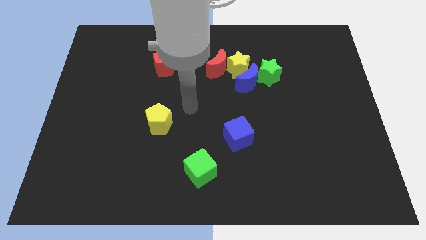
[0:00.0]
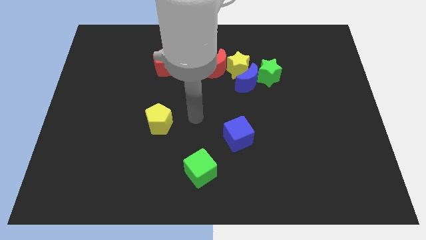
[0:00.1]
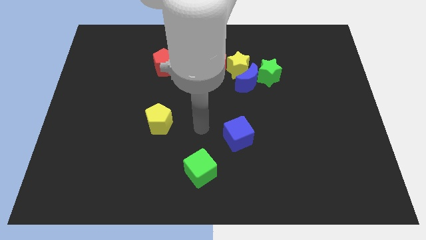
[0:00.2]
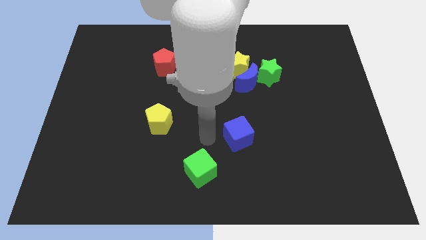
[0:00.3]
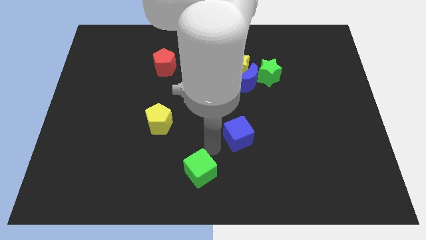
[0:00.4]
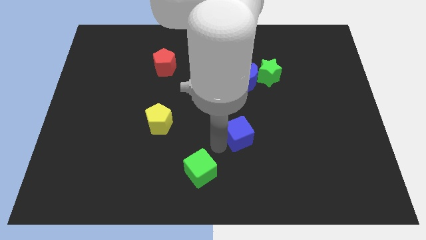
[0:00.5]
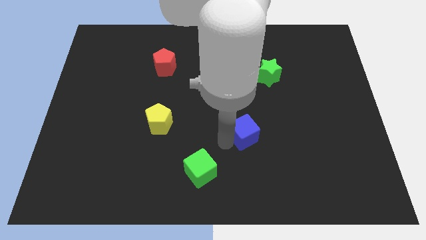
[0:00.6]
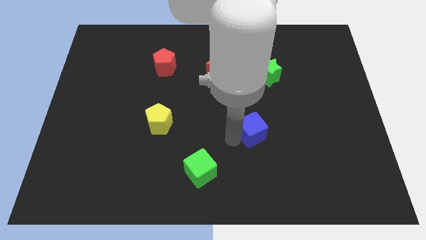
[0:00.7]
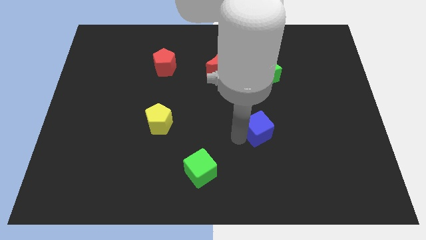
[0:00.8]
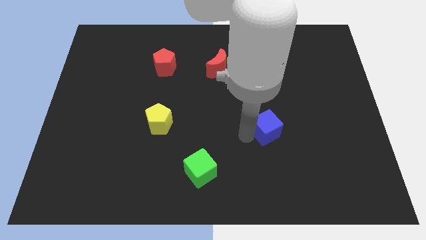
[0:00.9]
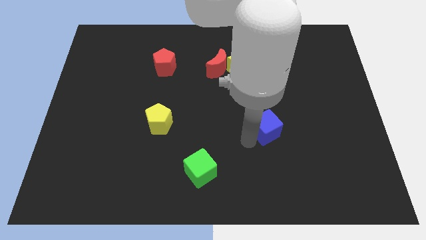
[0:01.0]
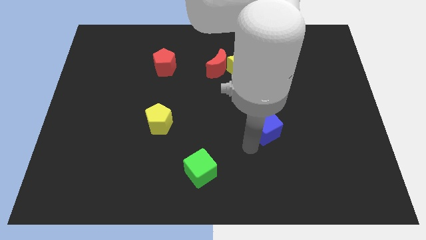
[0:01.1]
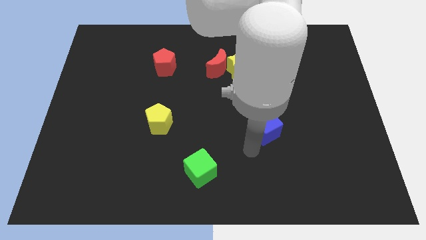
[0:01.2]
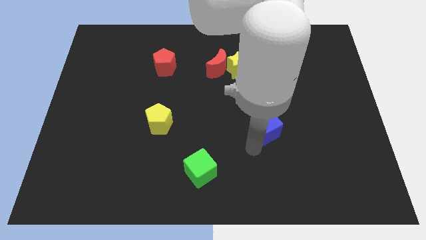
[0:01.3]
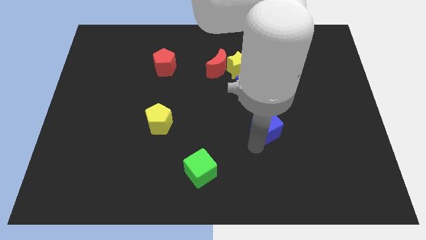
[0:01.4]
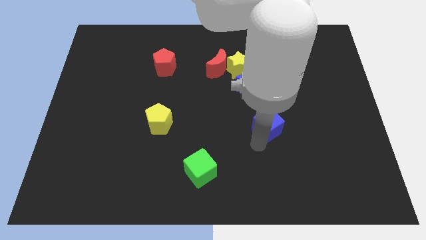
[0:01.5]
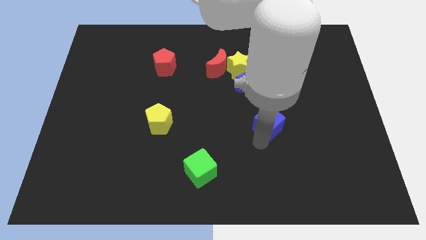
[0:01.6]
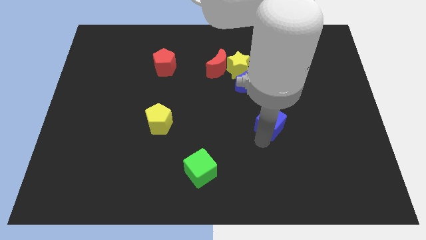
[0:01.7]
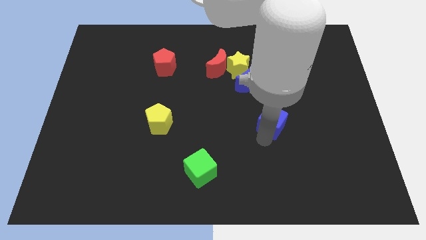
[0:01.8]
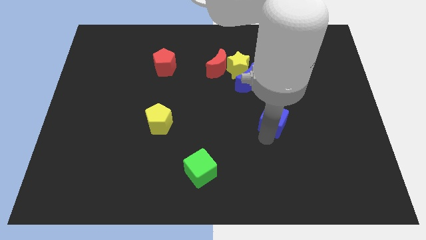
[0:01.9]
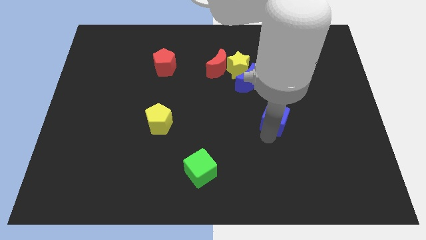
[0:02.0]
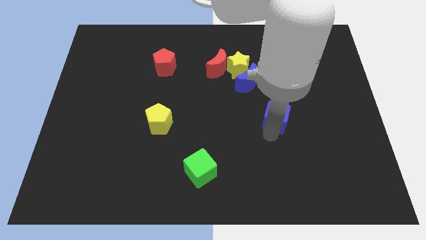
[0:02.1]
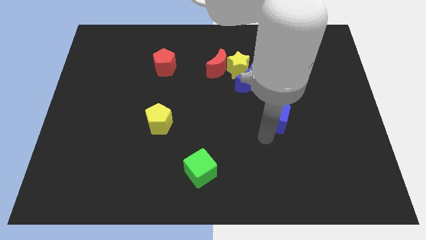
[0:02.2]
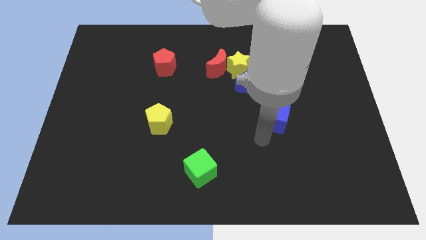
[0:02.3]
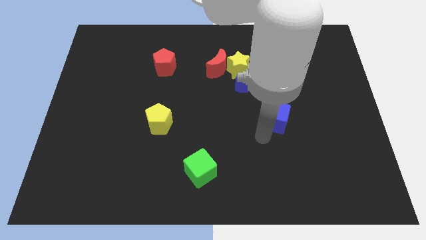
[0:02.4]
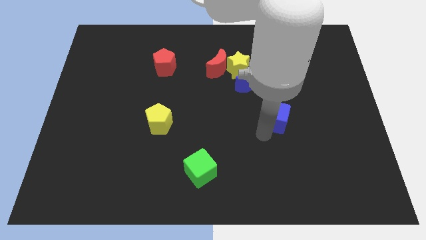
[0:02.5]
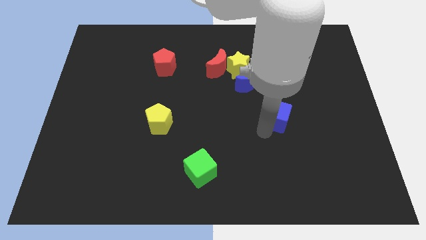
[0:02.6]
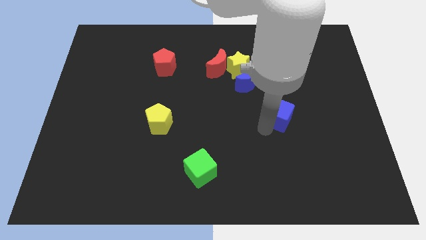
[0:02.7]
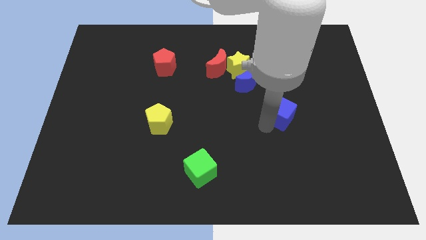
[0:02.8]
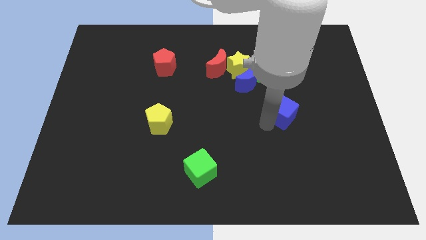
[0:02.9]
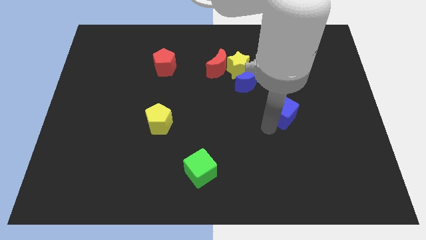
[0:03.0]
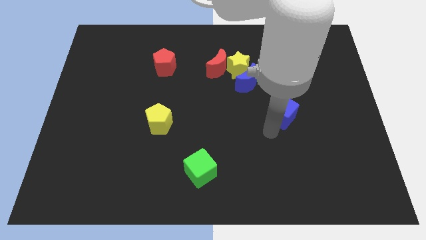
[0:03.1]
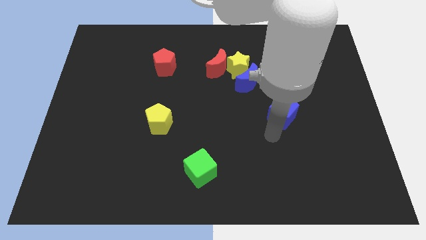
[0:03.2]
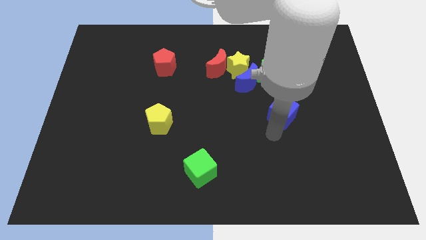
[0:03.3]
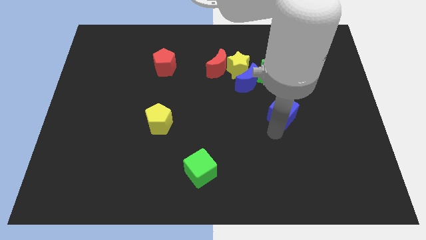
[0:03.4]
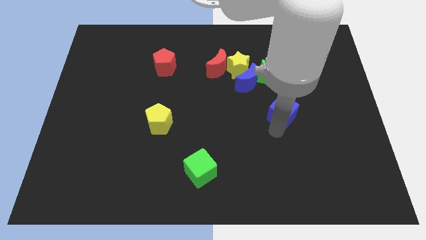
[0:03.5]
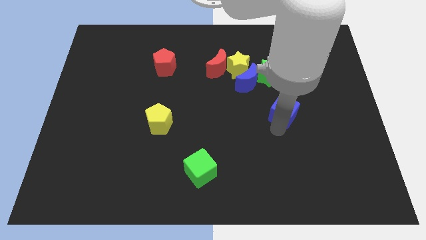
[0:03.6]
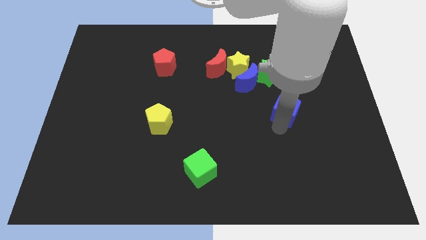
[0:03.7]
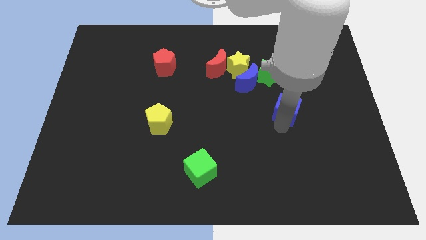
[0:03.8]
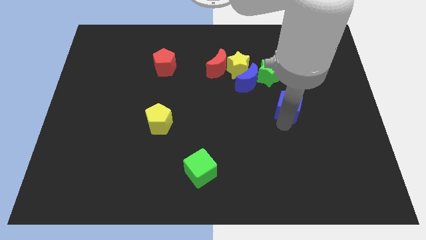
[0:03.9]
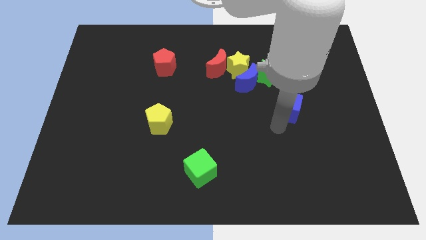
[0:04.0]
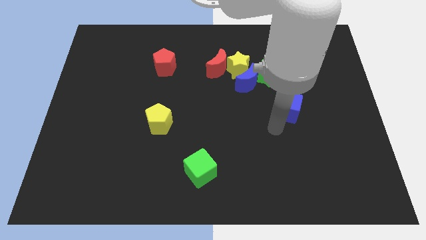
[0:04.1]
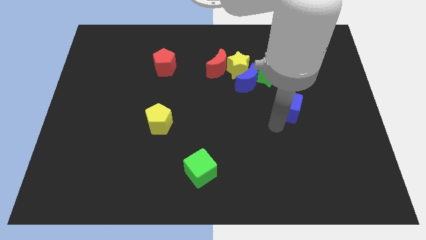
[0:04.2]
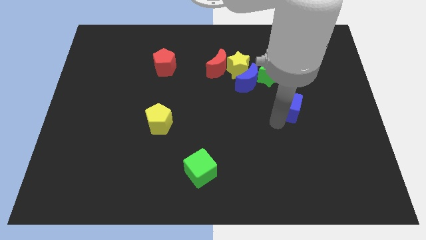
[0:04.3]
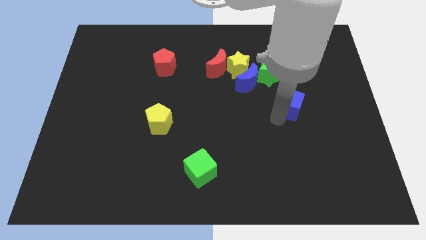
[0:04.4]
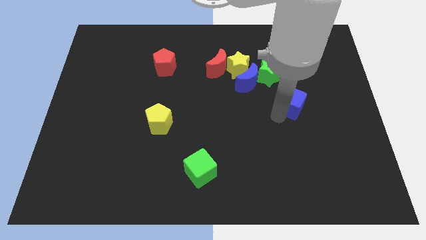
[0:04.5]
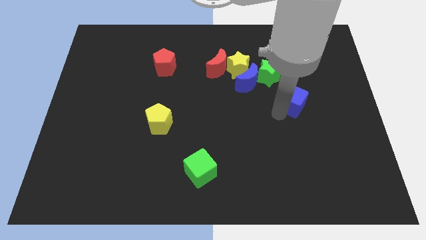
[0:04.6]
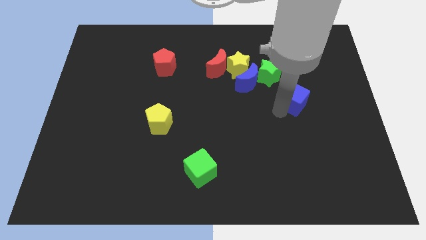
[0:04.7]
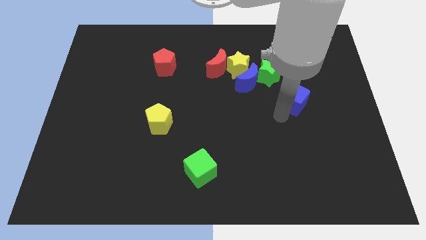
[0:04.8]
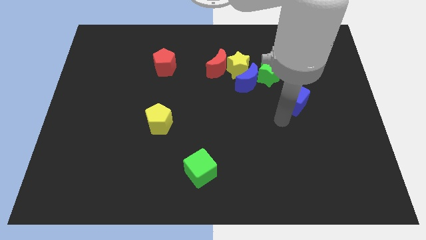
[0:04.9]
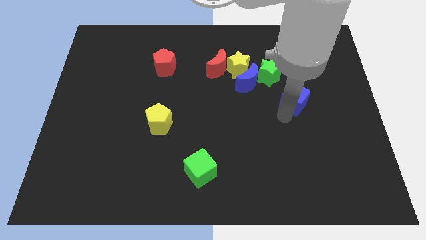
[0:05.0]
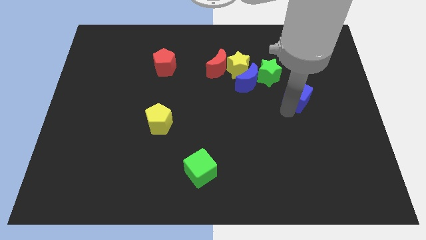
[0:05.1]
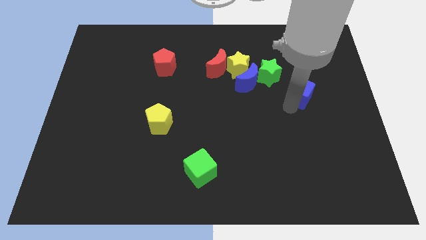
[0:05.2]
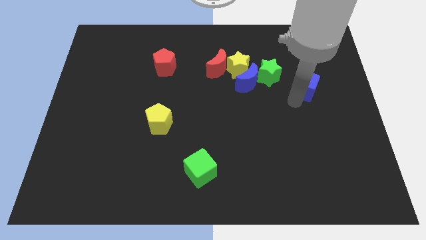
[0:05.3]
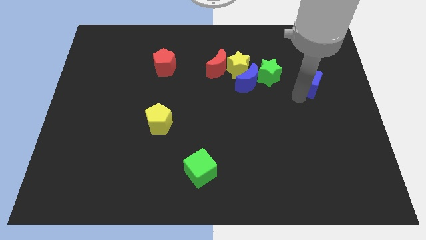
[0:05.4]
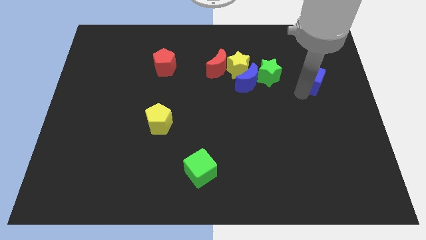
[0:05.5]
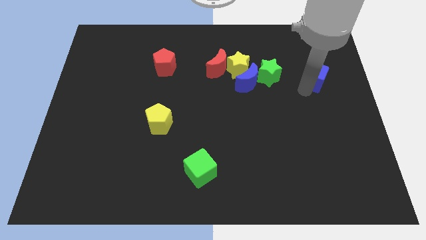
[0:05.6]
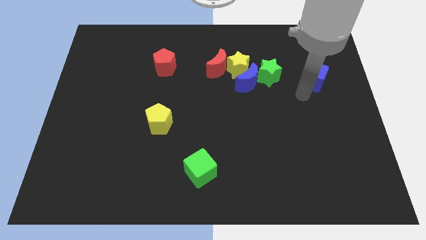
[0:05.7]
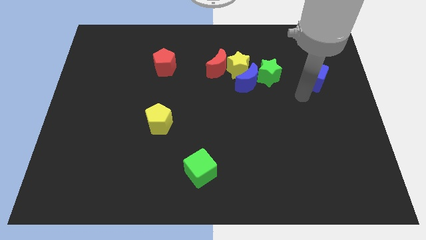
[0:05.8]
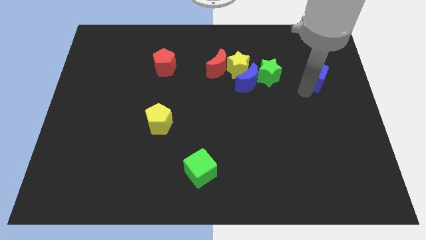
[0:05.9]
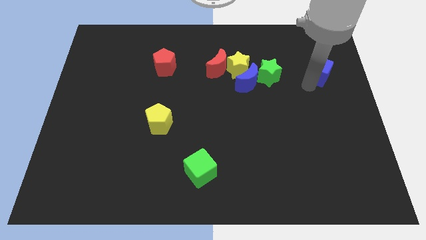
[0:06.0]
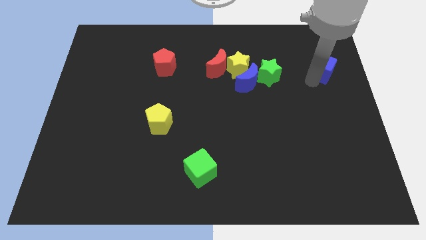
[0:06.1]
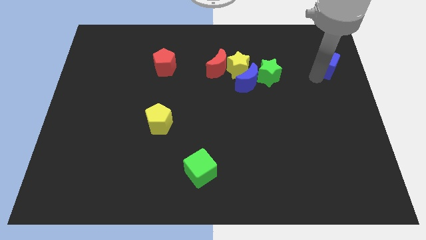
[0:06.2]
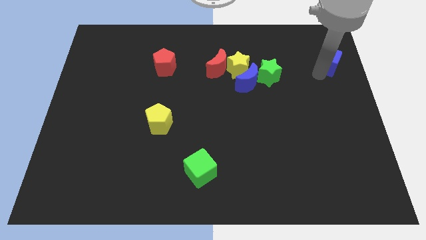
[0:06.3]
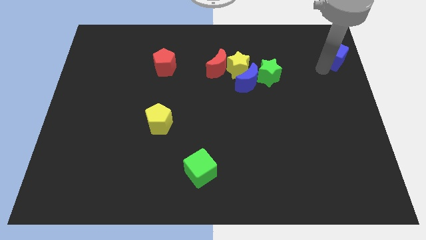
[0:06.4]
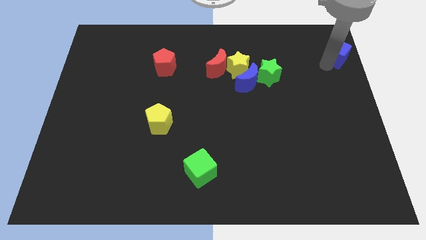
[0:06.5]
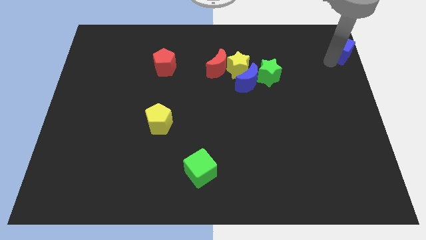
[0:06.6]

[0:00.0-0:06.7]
move the blue cube to the top right
